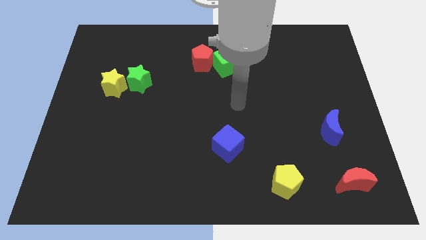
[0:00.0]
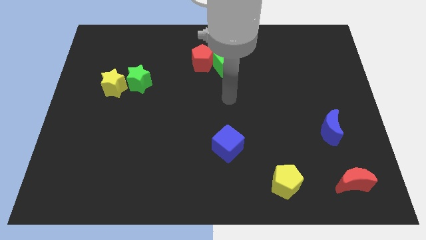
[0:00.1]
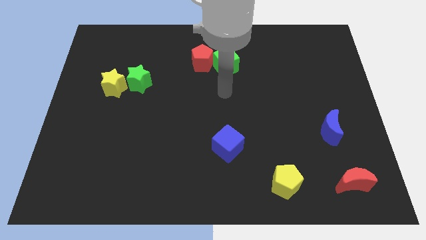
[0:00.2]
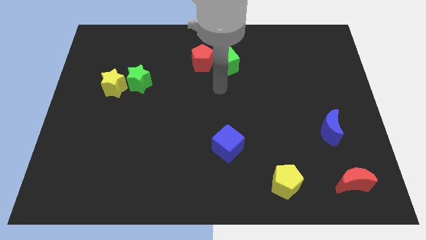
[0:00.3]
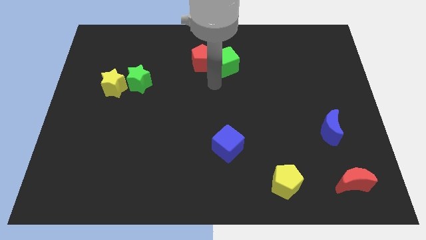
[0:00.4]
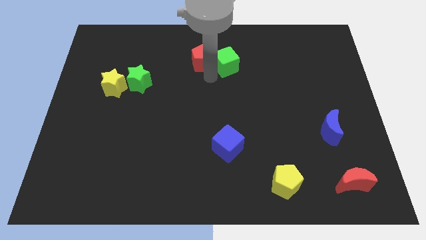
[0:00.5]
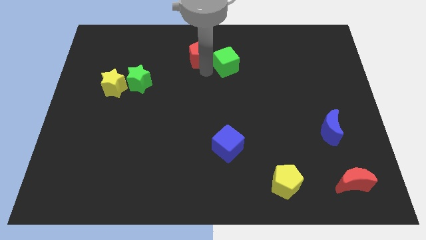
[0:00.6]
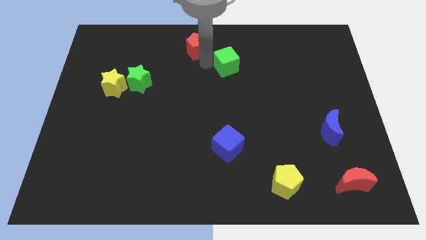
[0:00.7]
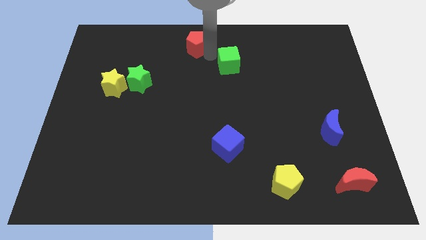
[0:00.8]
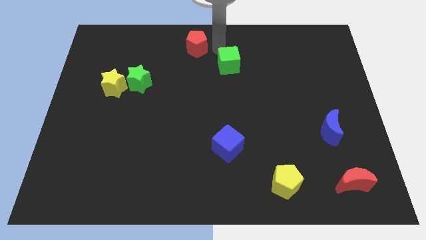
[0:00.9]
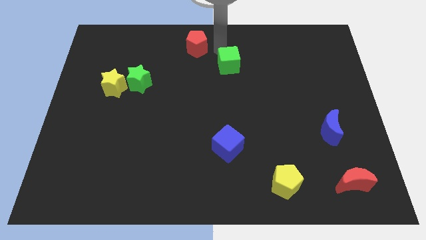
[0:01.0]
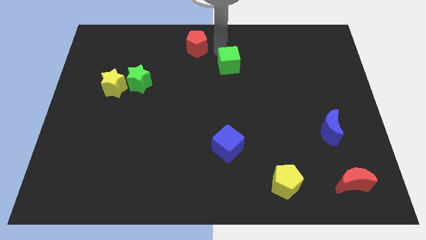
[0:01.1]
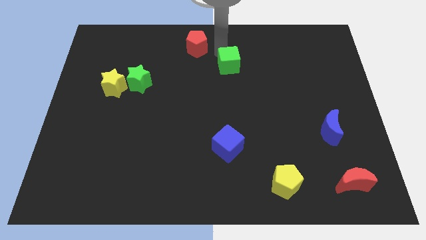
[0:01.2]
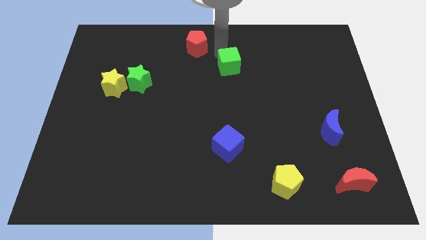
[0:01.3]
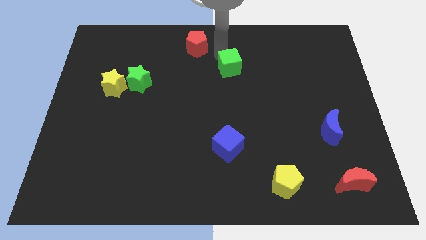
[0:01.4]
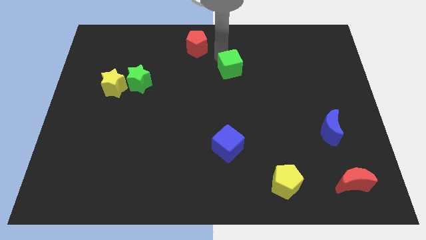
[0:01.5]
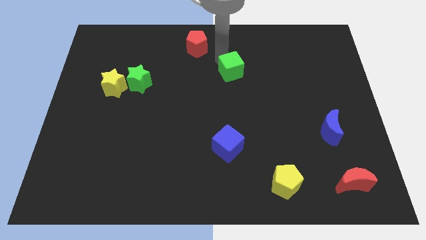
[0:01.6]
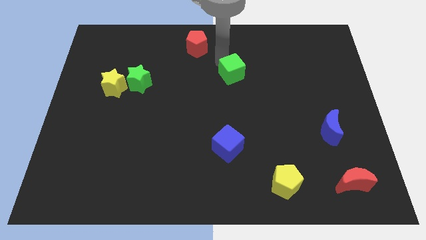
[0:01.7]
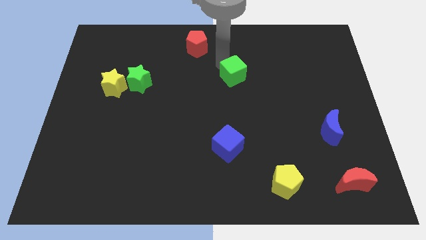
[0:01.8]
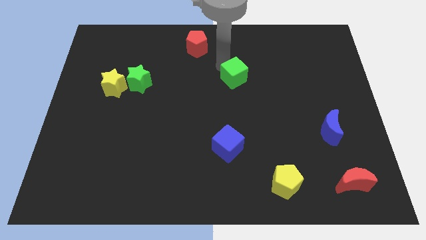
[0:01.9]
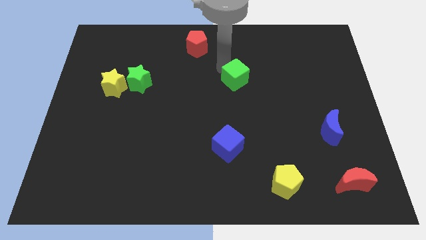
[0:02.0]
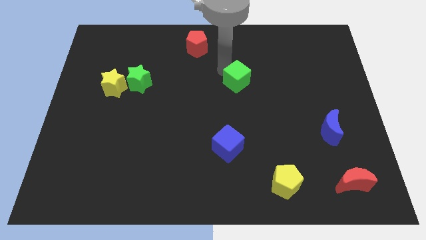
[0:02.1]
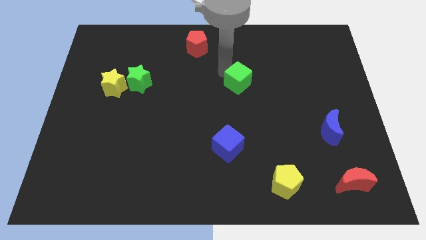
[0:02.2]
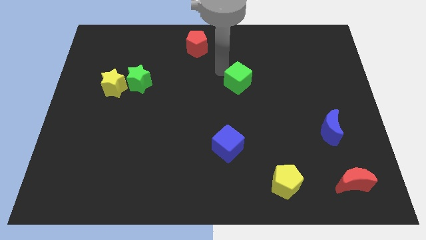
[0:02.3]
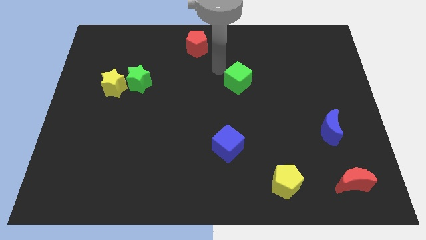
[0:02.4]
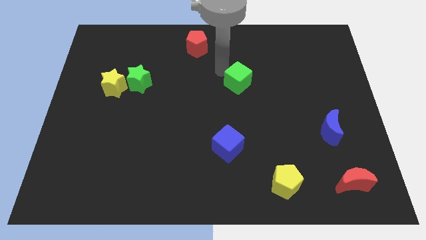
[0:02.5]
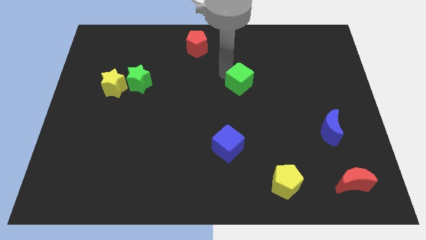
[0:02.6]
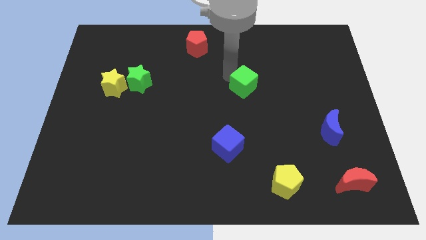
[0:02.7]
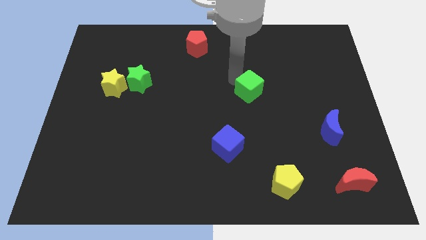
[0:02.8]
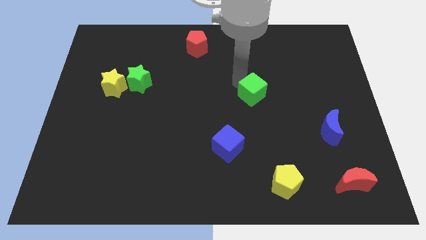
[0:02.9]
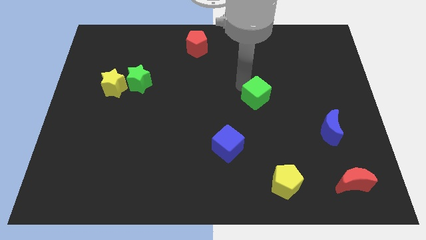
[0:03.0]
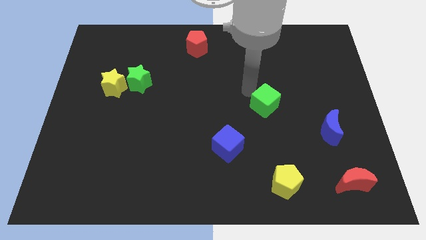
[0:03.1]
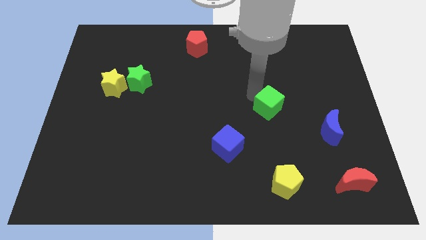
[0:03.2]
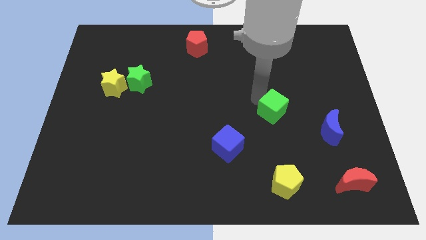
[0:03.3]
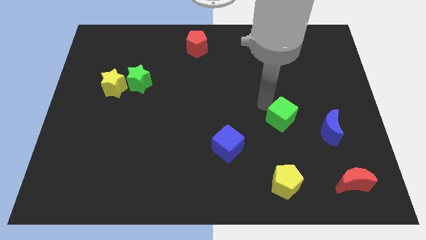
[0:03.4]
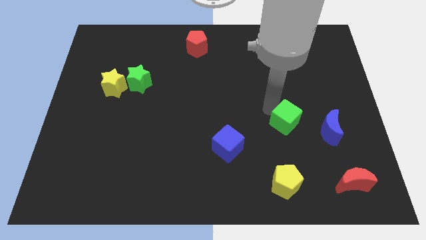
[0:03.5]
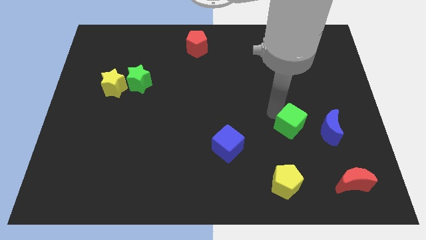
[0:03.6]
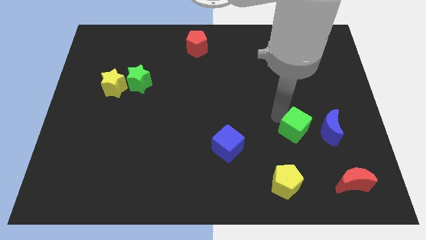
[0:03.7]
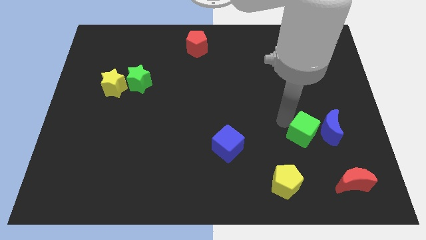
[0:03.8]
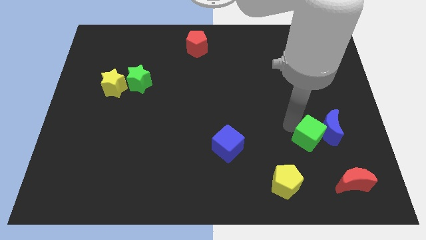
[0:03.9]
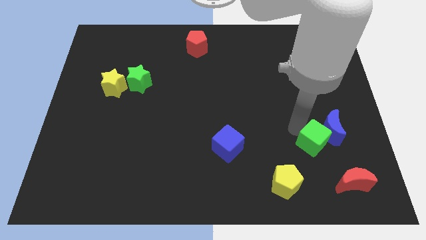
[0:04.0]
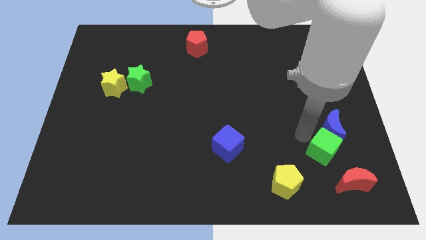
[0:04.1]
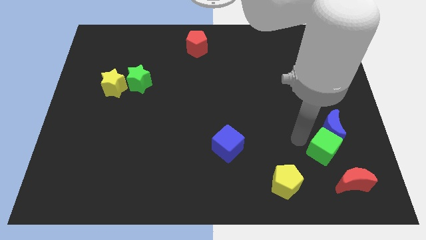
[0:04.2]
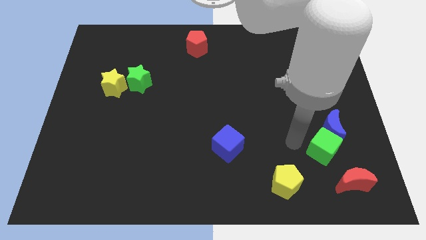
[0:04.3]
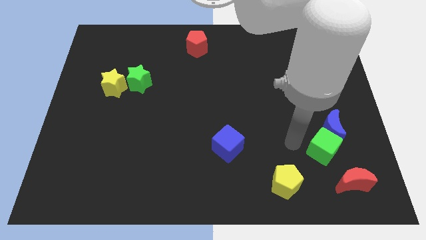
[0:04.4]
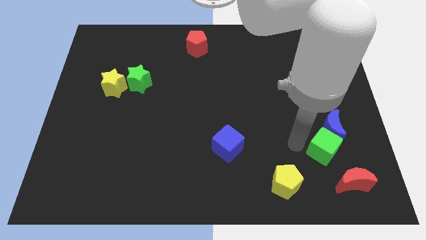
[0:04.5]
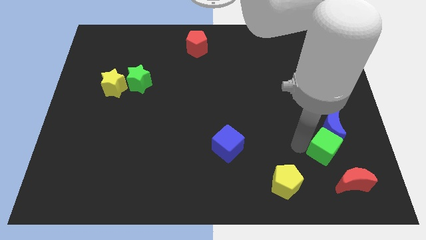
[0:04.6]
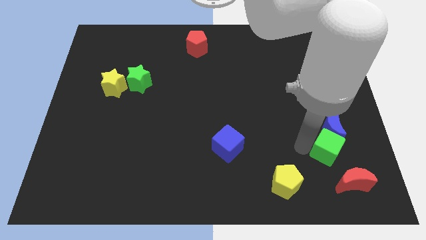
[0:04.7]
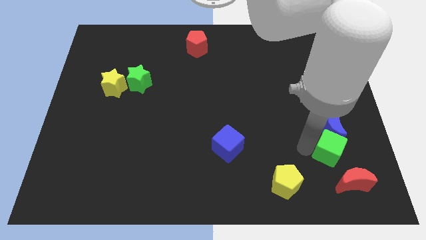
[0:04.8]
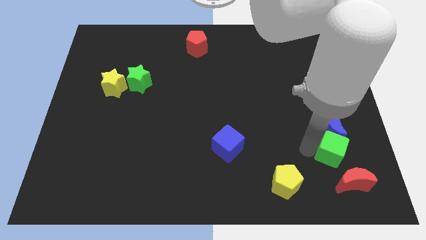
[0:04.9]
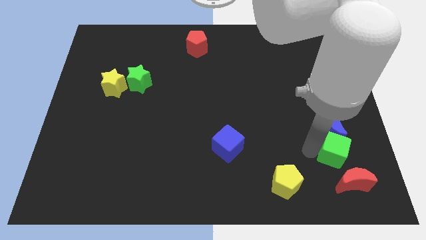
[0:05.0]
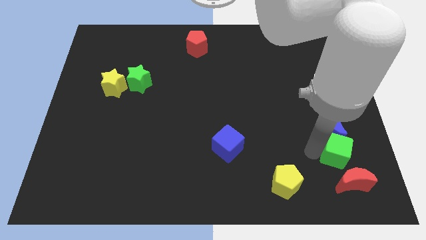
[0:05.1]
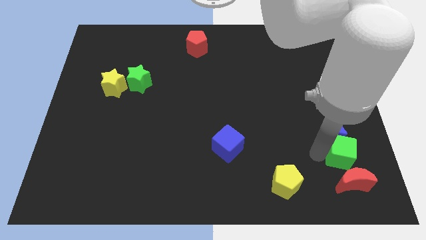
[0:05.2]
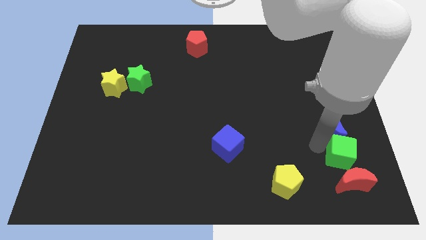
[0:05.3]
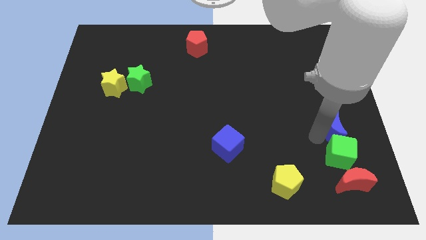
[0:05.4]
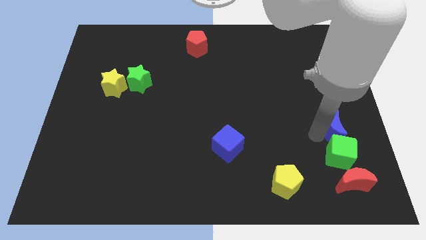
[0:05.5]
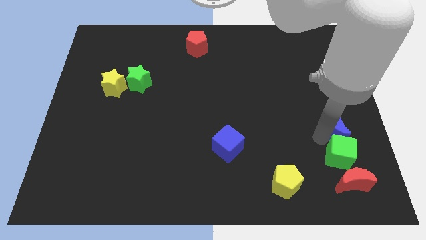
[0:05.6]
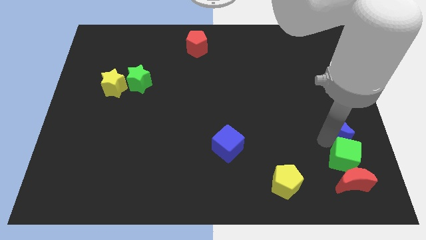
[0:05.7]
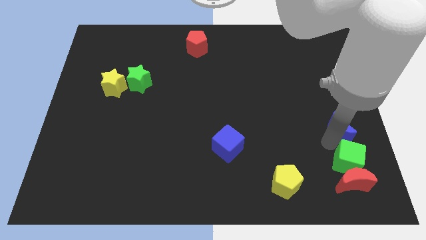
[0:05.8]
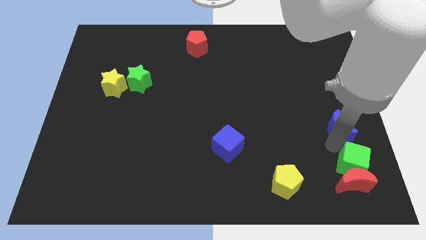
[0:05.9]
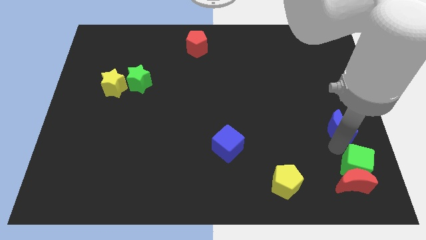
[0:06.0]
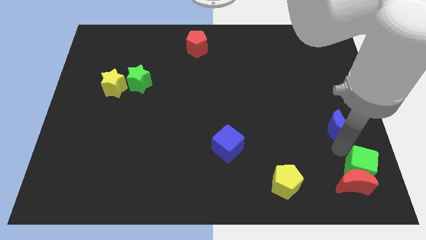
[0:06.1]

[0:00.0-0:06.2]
move the green cube to the lower right corner

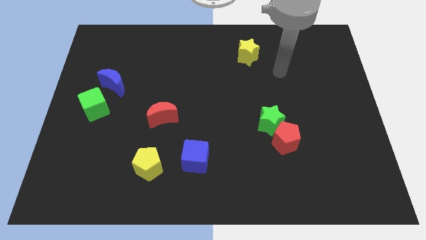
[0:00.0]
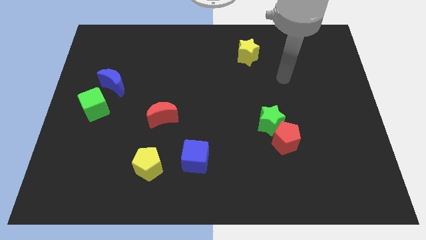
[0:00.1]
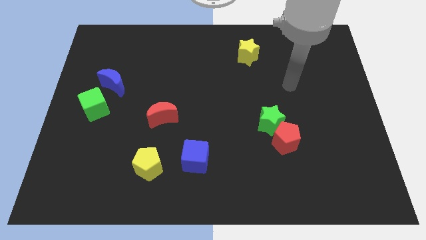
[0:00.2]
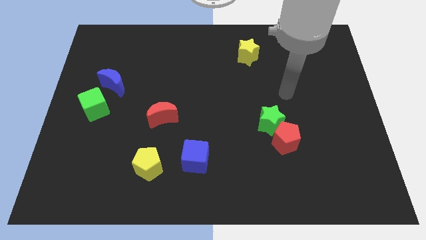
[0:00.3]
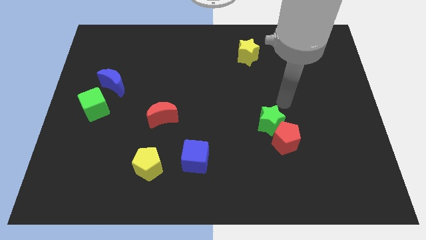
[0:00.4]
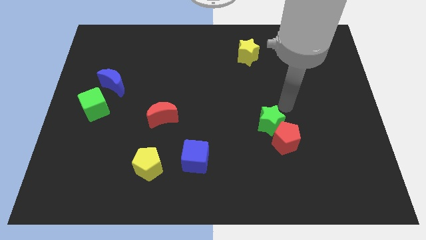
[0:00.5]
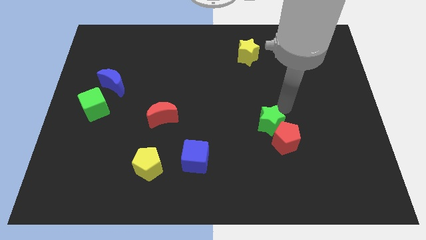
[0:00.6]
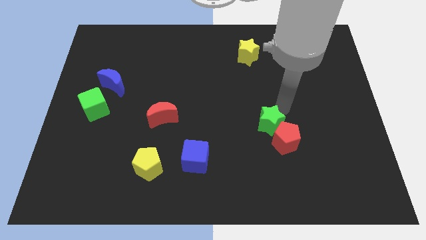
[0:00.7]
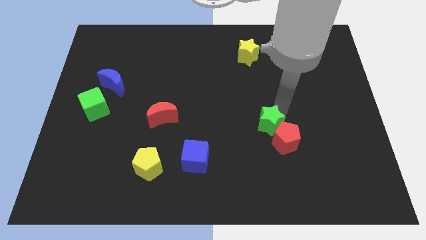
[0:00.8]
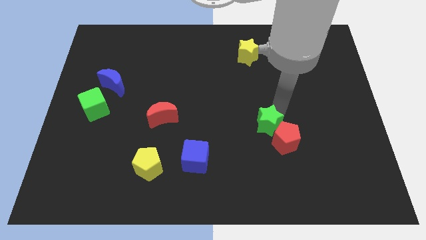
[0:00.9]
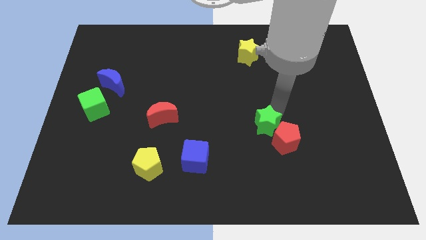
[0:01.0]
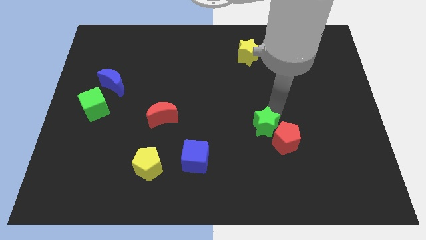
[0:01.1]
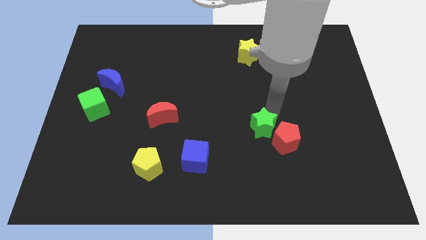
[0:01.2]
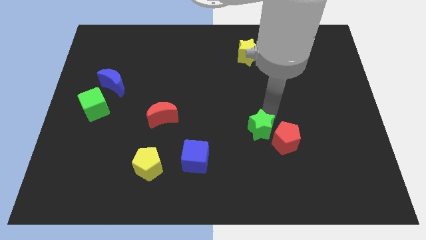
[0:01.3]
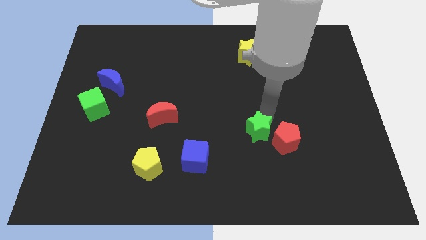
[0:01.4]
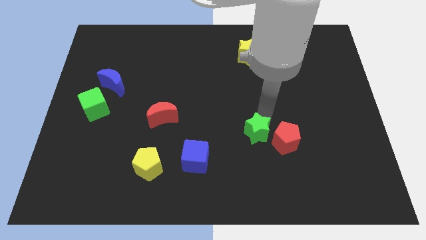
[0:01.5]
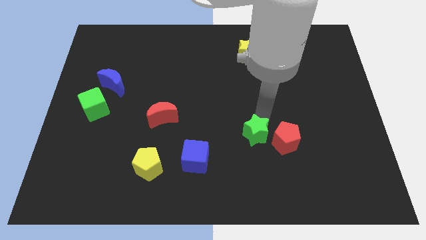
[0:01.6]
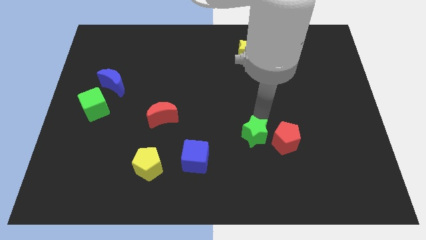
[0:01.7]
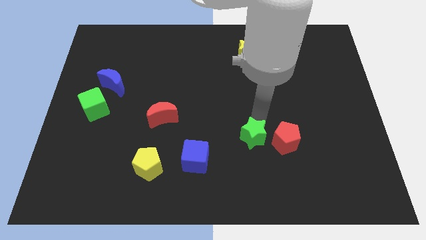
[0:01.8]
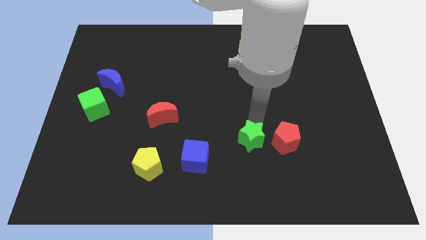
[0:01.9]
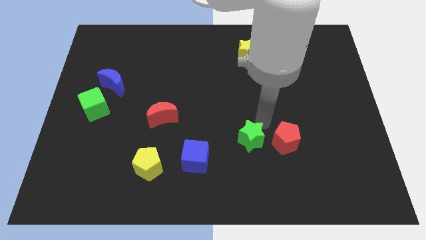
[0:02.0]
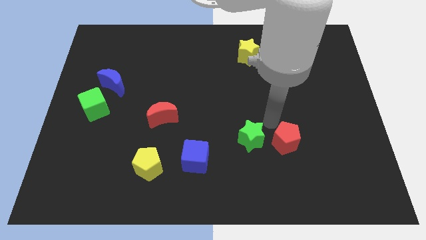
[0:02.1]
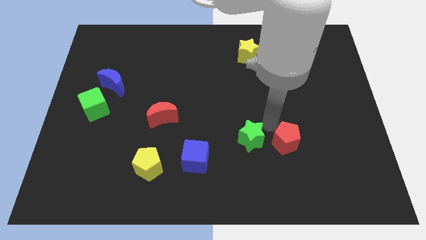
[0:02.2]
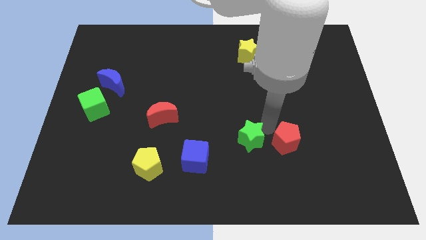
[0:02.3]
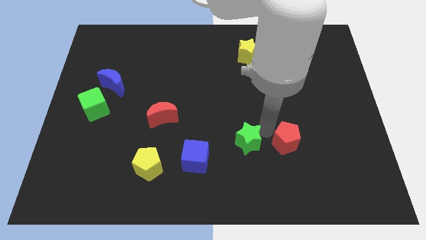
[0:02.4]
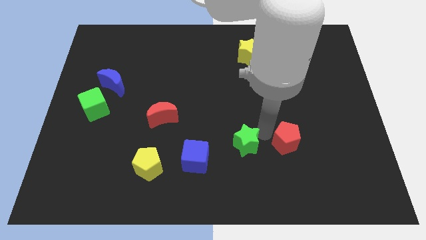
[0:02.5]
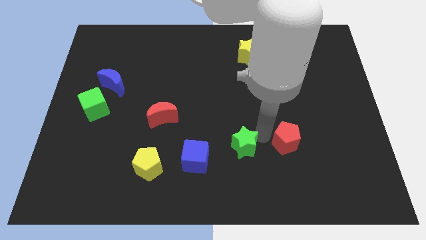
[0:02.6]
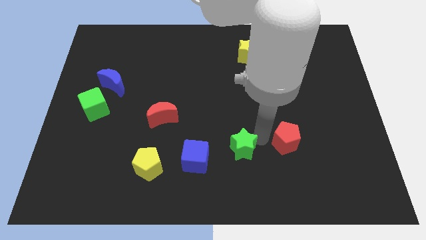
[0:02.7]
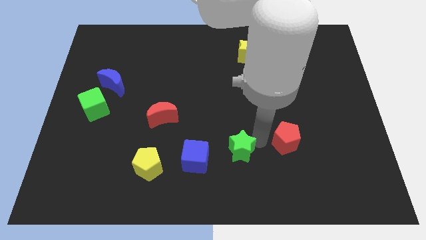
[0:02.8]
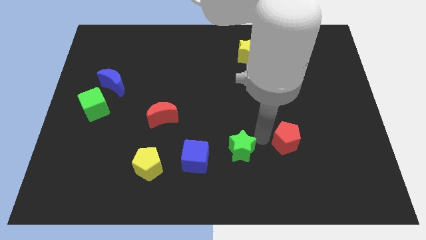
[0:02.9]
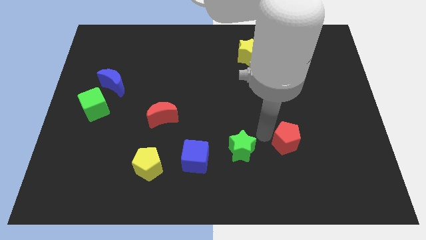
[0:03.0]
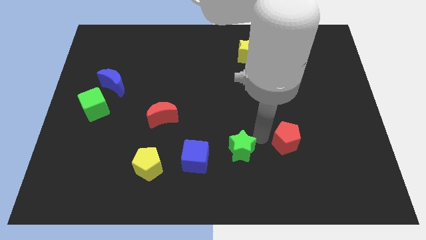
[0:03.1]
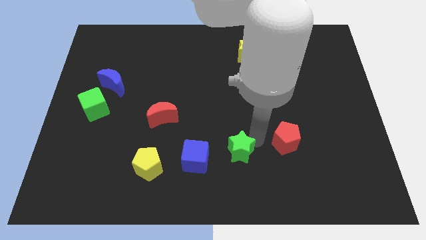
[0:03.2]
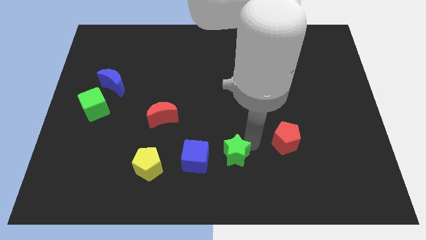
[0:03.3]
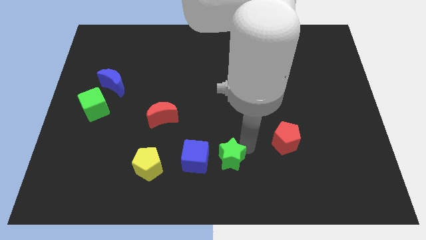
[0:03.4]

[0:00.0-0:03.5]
move the green star to the bottom side
